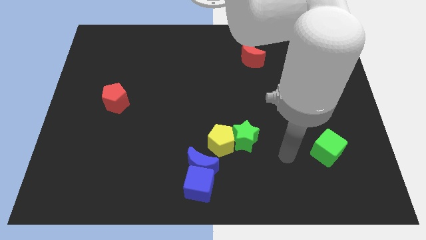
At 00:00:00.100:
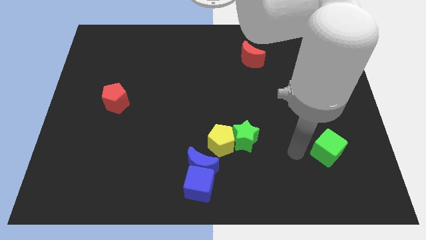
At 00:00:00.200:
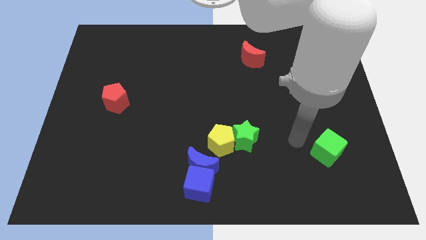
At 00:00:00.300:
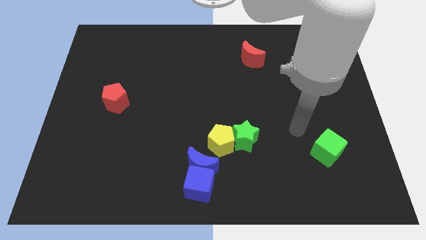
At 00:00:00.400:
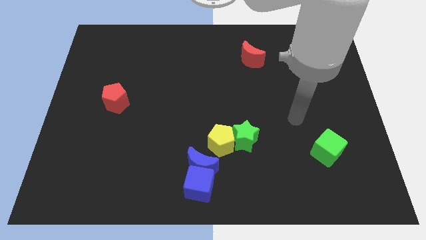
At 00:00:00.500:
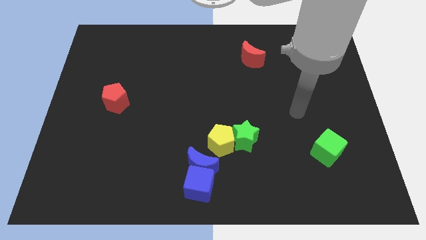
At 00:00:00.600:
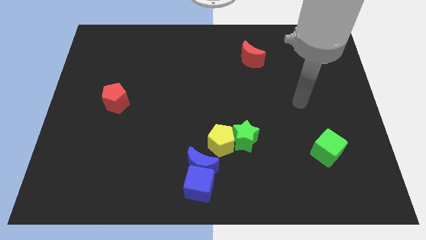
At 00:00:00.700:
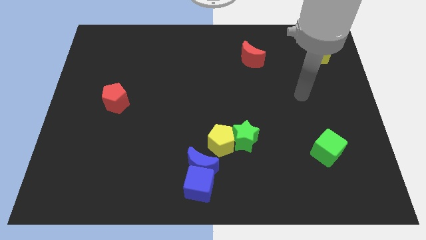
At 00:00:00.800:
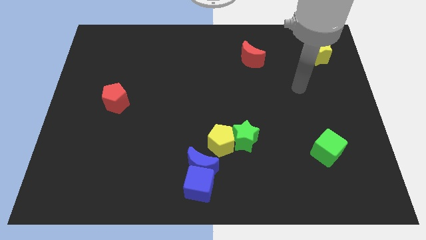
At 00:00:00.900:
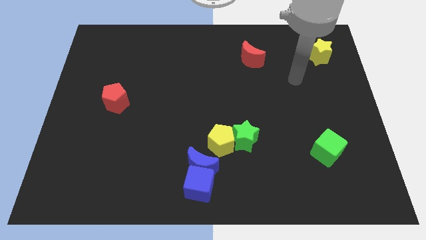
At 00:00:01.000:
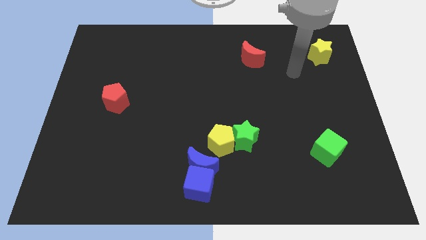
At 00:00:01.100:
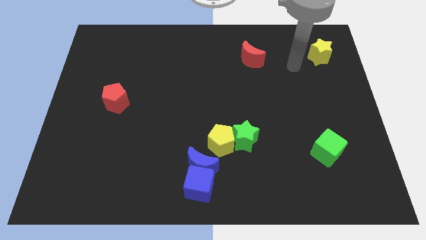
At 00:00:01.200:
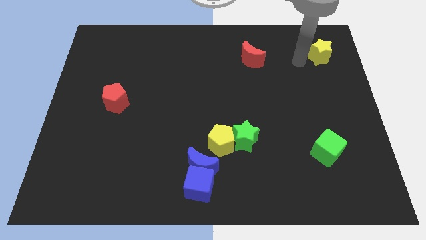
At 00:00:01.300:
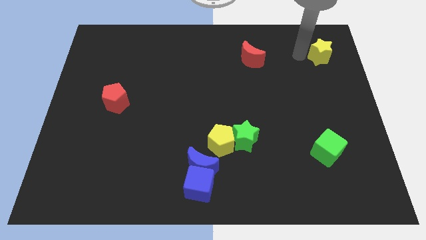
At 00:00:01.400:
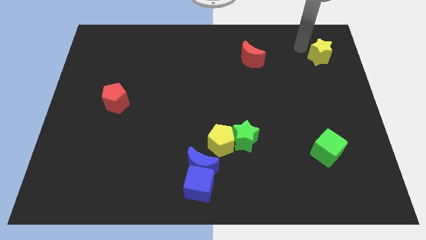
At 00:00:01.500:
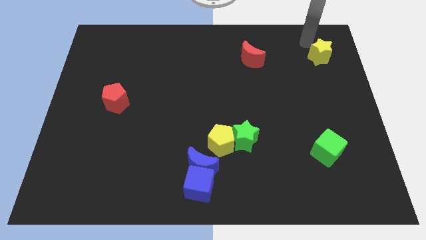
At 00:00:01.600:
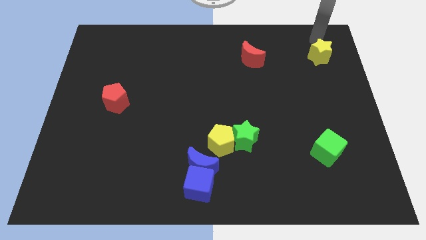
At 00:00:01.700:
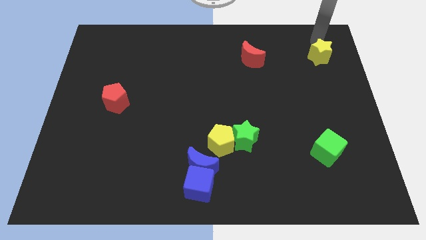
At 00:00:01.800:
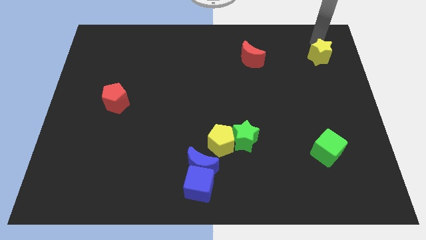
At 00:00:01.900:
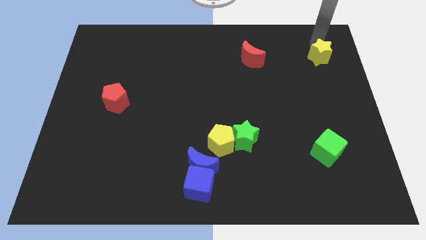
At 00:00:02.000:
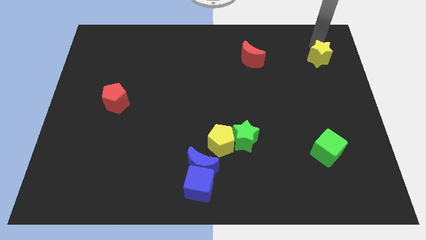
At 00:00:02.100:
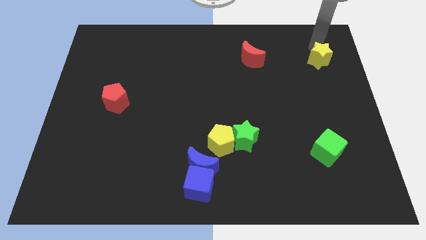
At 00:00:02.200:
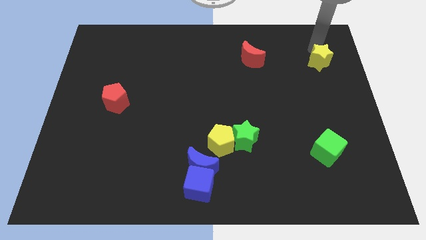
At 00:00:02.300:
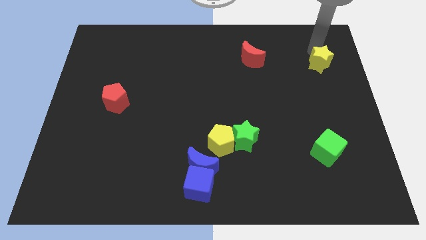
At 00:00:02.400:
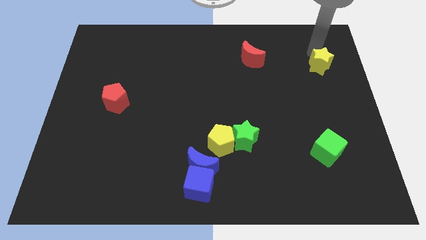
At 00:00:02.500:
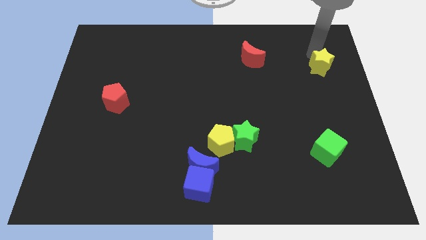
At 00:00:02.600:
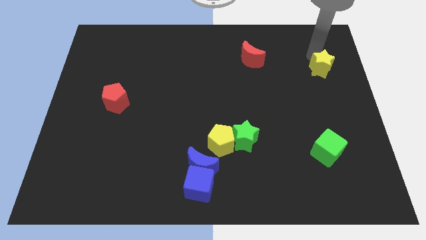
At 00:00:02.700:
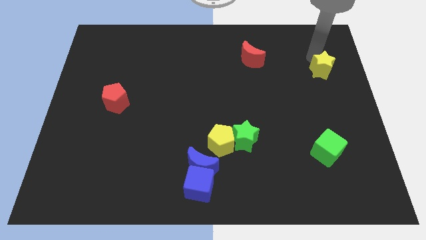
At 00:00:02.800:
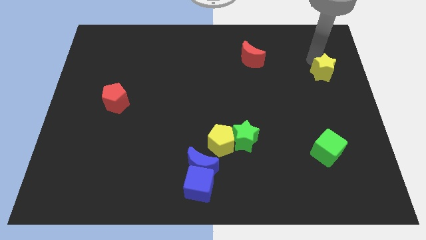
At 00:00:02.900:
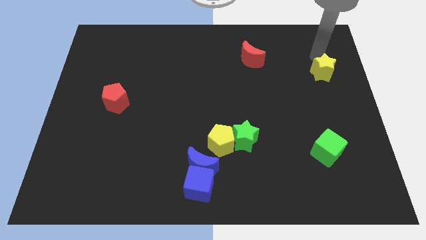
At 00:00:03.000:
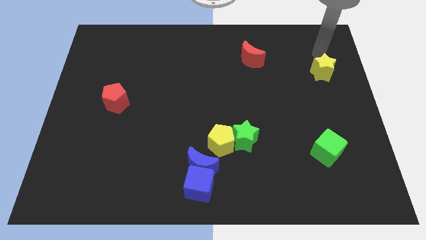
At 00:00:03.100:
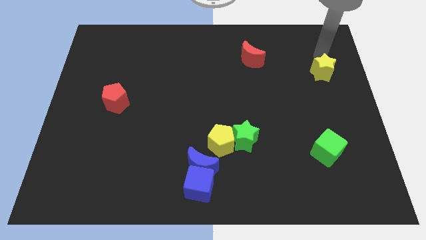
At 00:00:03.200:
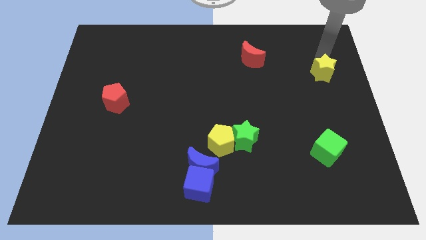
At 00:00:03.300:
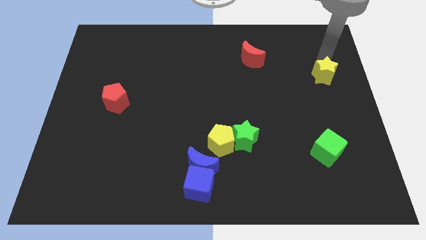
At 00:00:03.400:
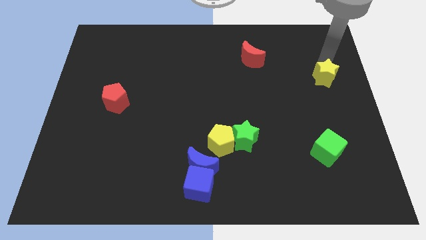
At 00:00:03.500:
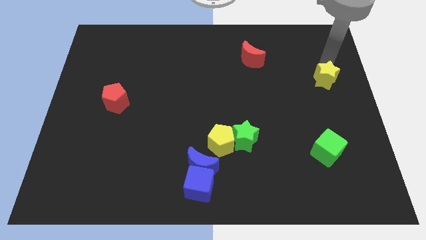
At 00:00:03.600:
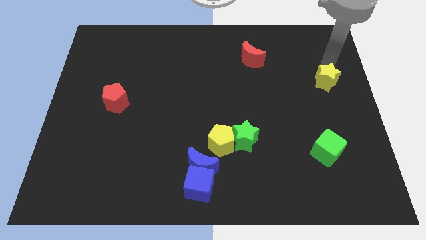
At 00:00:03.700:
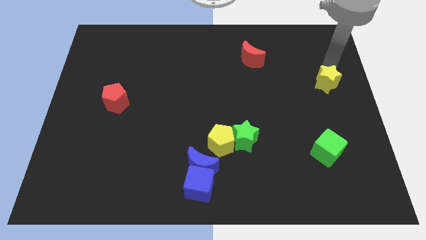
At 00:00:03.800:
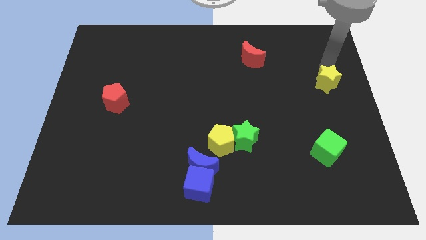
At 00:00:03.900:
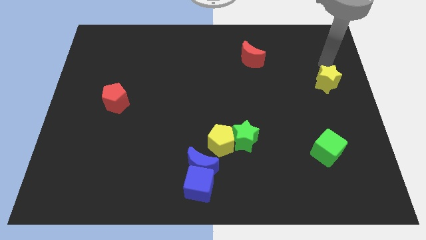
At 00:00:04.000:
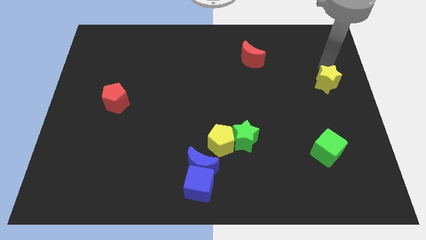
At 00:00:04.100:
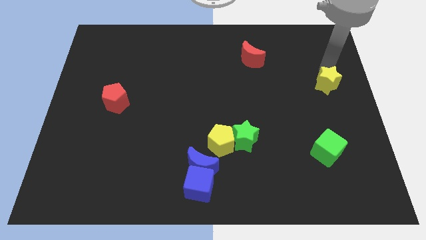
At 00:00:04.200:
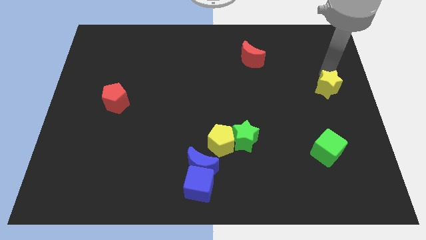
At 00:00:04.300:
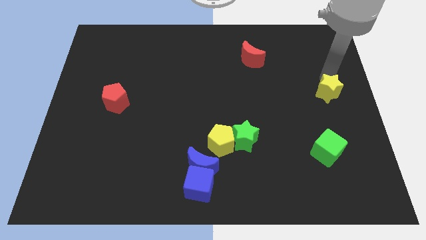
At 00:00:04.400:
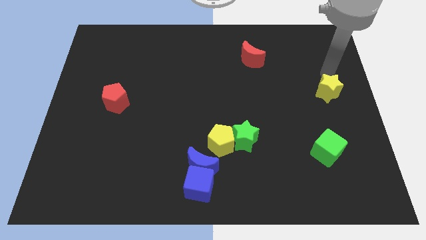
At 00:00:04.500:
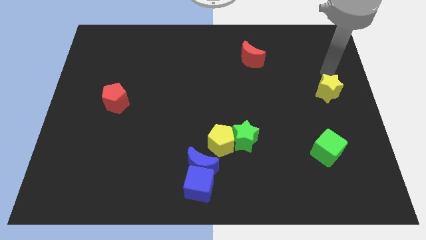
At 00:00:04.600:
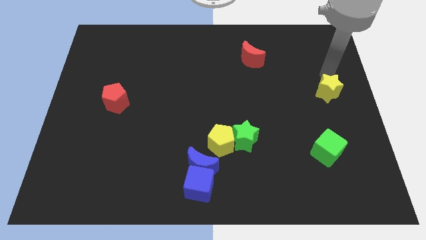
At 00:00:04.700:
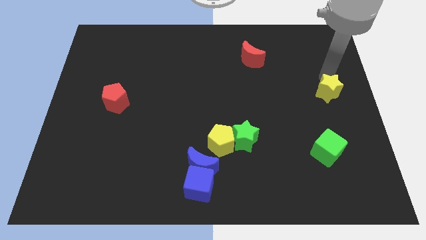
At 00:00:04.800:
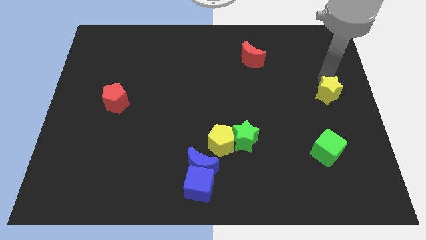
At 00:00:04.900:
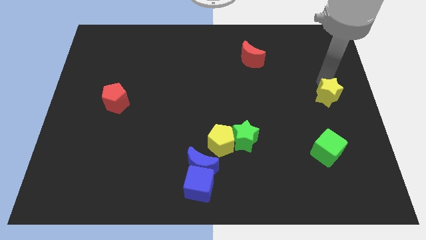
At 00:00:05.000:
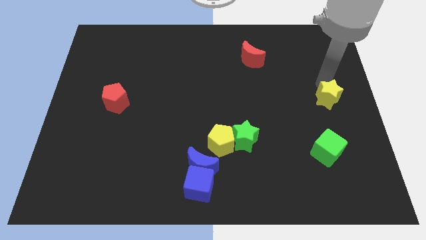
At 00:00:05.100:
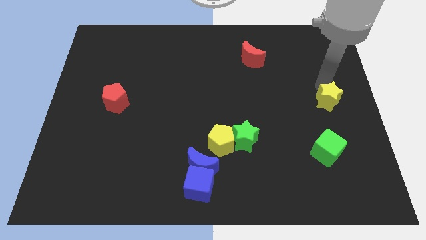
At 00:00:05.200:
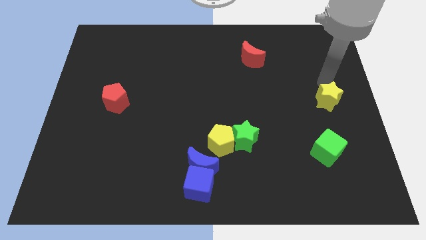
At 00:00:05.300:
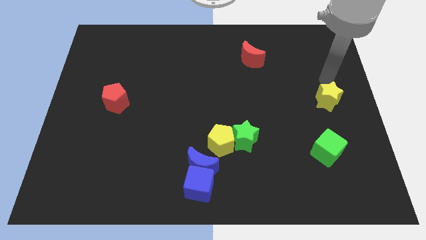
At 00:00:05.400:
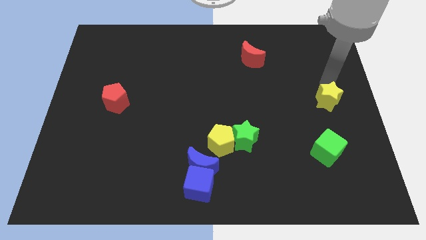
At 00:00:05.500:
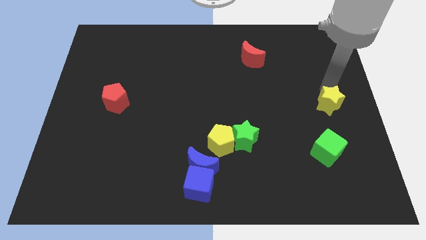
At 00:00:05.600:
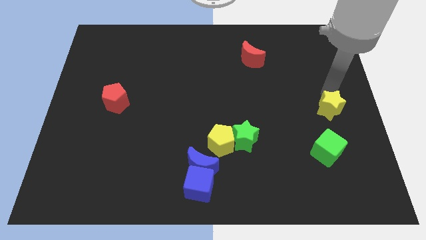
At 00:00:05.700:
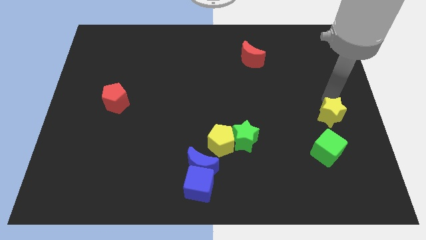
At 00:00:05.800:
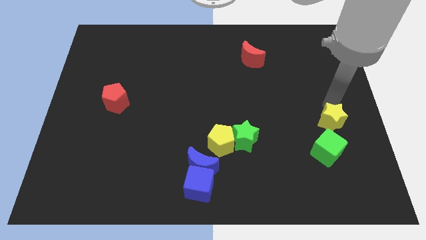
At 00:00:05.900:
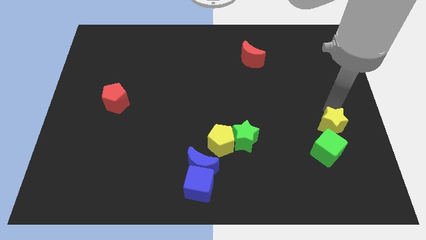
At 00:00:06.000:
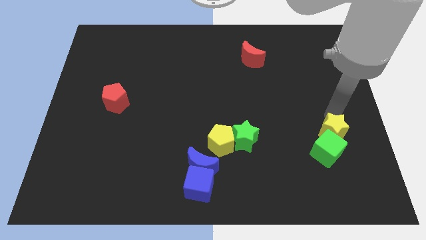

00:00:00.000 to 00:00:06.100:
put the yellow star towards the green cube

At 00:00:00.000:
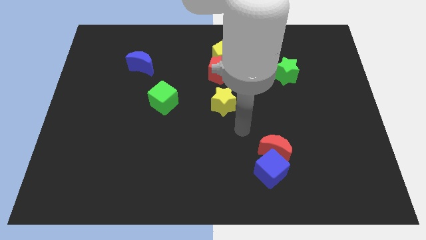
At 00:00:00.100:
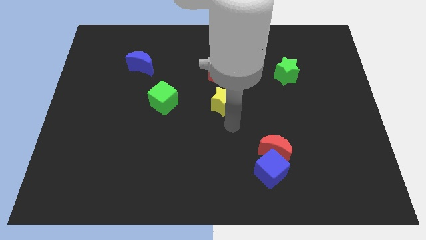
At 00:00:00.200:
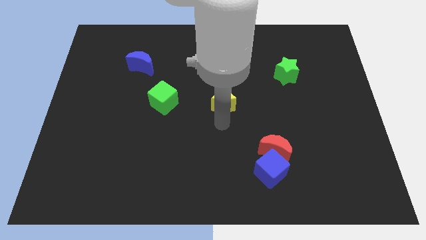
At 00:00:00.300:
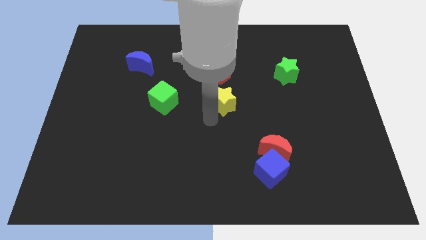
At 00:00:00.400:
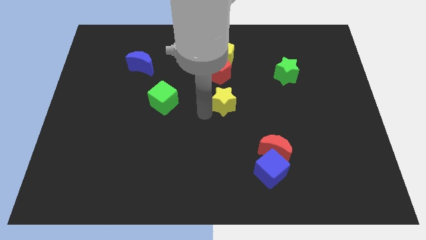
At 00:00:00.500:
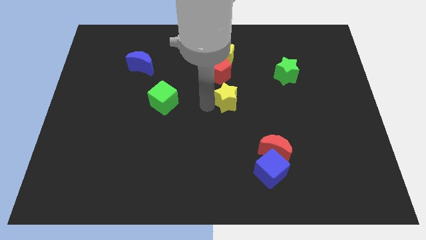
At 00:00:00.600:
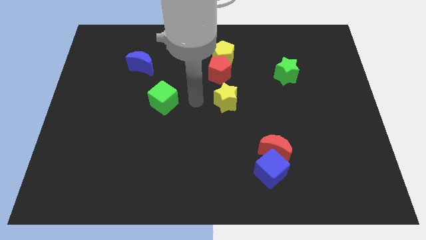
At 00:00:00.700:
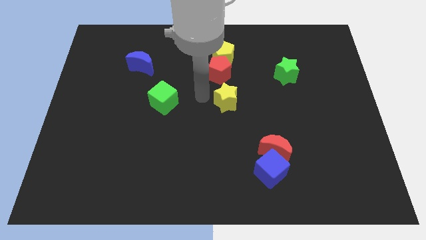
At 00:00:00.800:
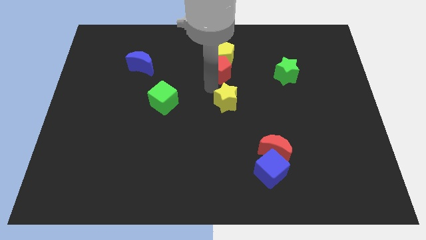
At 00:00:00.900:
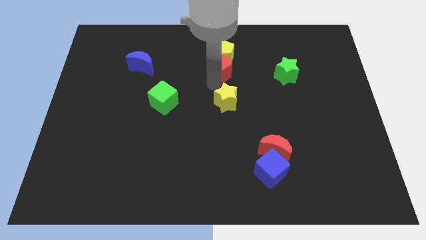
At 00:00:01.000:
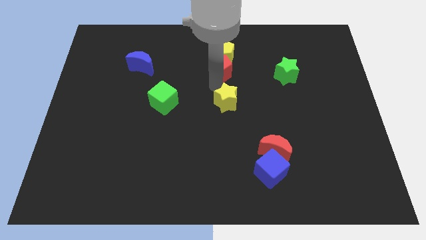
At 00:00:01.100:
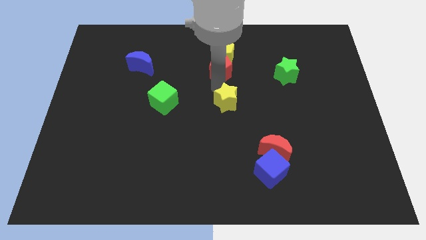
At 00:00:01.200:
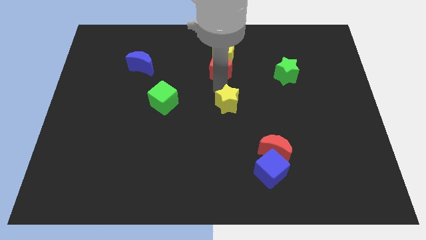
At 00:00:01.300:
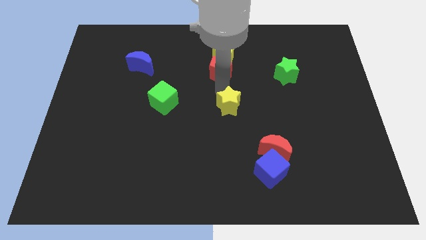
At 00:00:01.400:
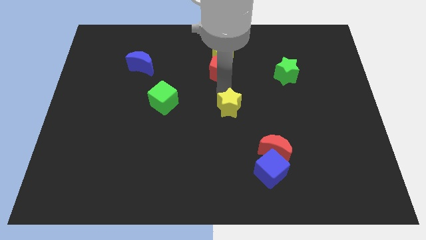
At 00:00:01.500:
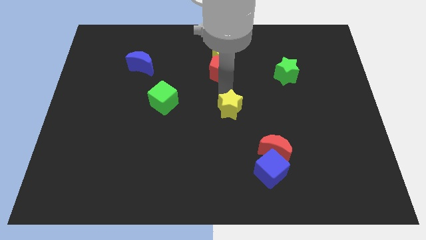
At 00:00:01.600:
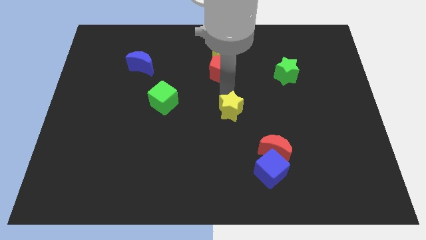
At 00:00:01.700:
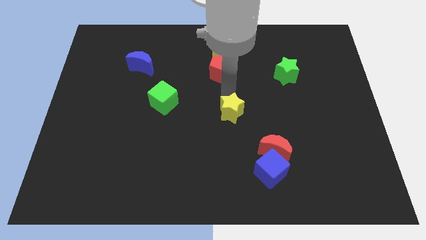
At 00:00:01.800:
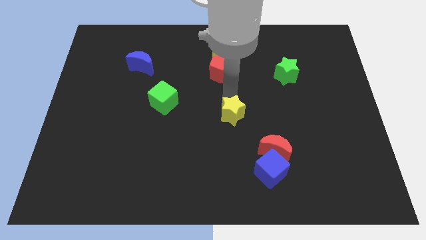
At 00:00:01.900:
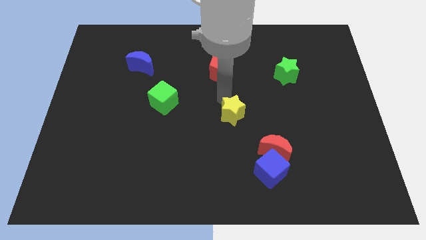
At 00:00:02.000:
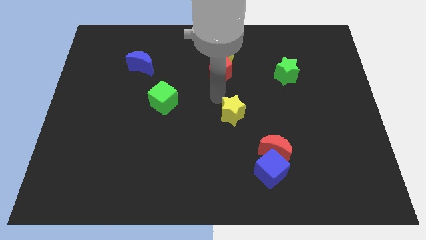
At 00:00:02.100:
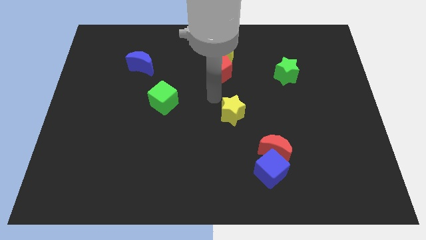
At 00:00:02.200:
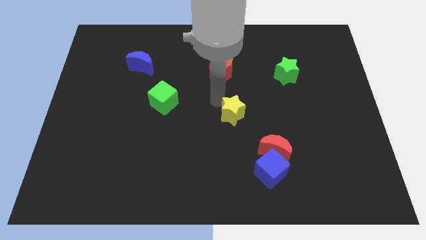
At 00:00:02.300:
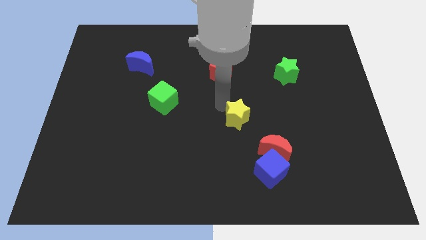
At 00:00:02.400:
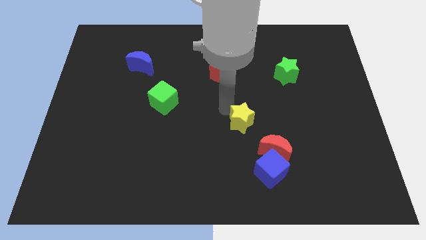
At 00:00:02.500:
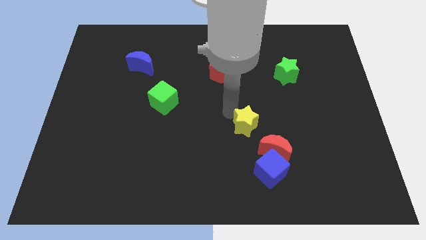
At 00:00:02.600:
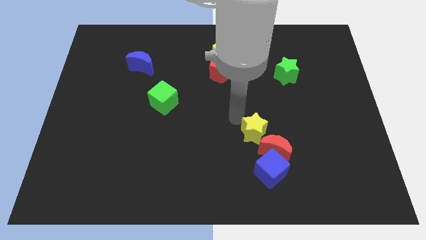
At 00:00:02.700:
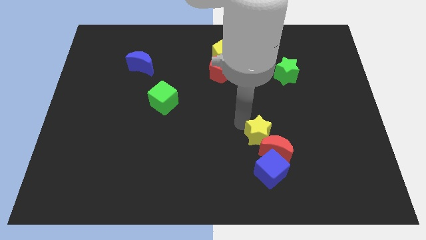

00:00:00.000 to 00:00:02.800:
move the yellow star next to the red moon
